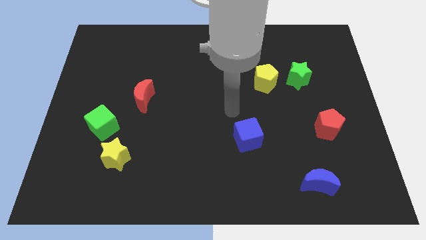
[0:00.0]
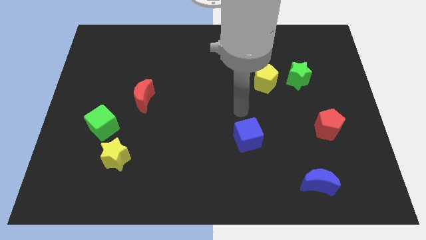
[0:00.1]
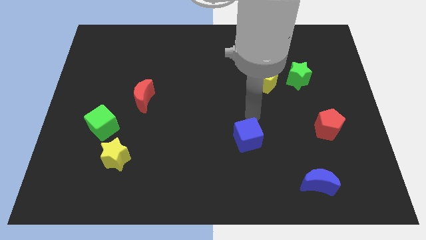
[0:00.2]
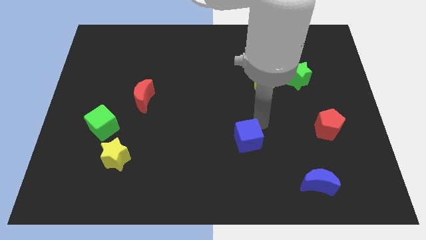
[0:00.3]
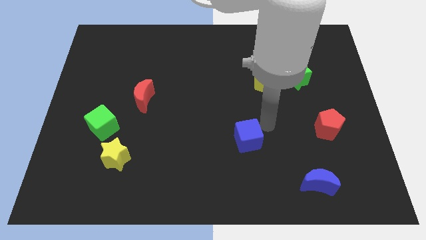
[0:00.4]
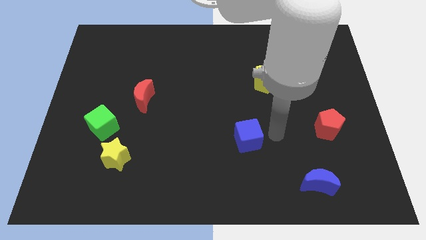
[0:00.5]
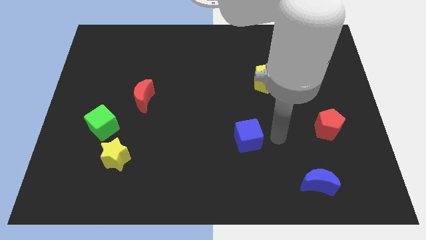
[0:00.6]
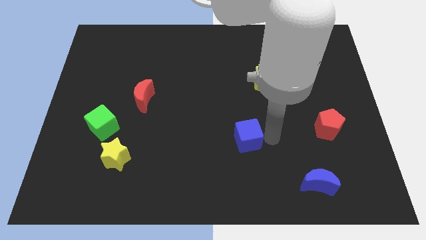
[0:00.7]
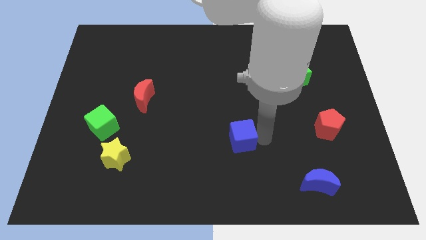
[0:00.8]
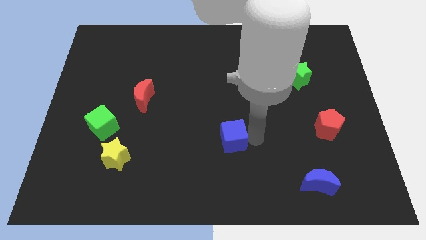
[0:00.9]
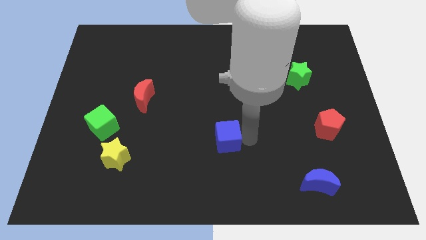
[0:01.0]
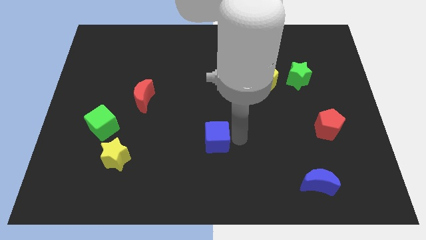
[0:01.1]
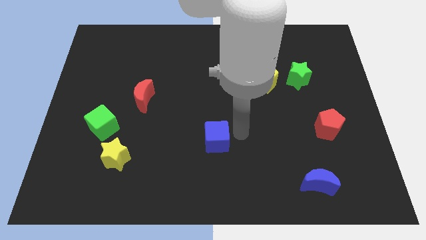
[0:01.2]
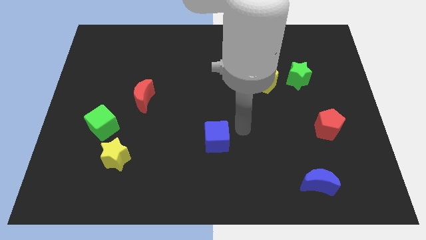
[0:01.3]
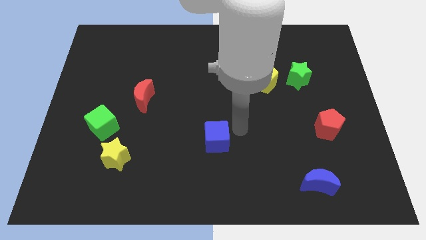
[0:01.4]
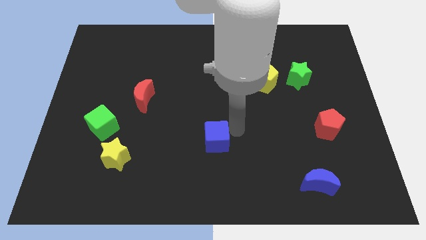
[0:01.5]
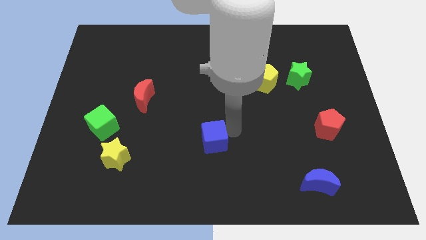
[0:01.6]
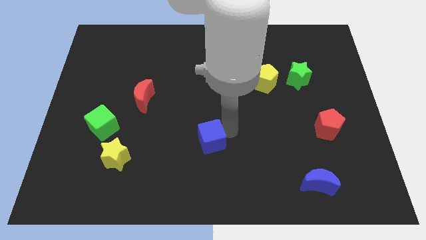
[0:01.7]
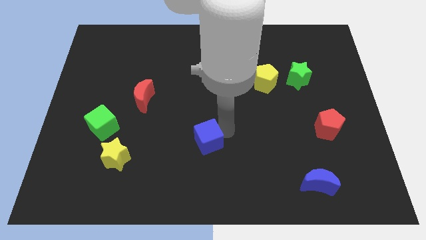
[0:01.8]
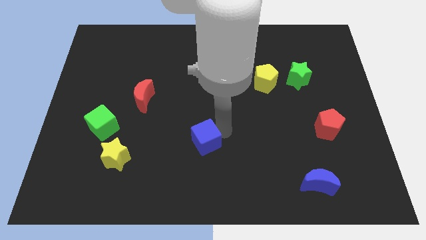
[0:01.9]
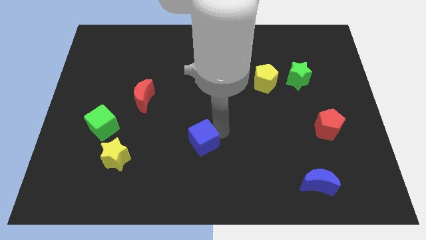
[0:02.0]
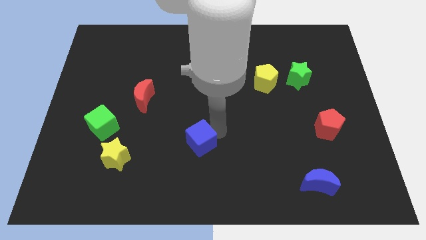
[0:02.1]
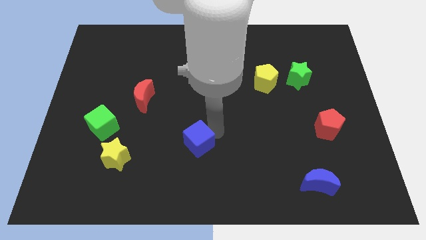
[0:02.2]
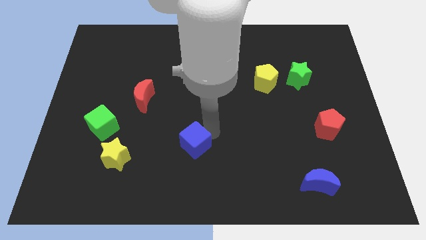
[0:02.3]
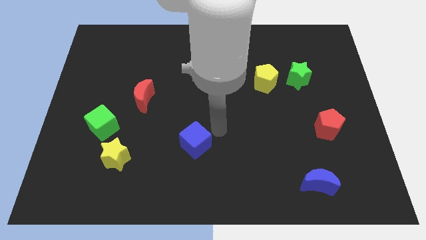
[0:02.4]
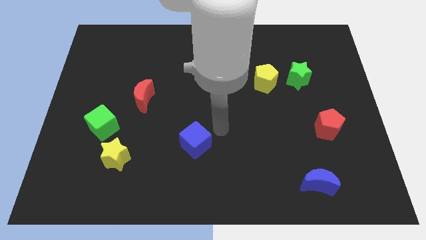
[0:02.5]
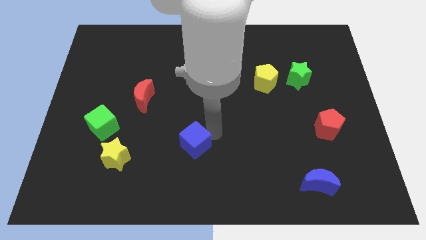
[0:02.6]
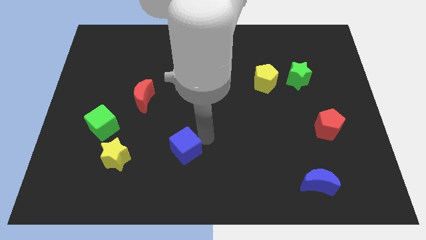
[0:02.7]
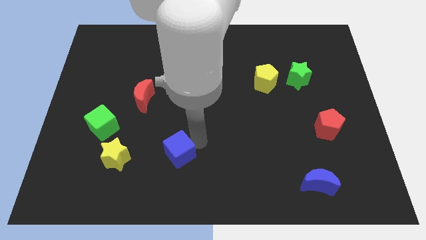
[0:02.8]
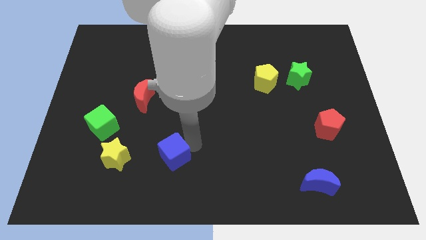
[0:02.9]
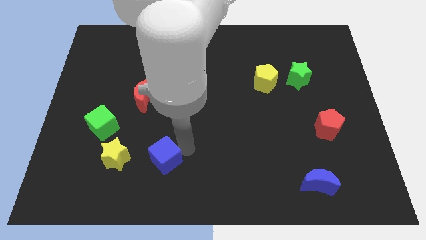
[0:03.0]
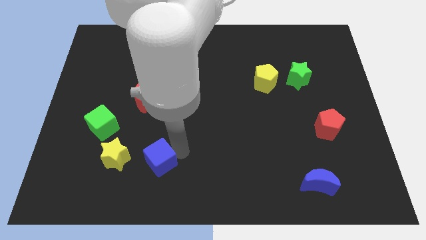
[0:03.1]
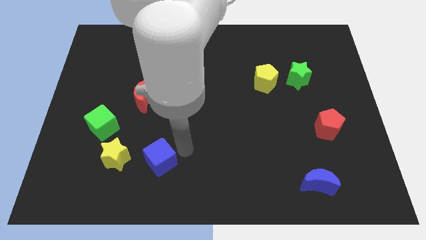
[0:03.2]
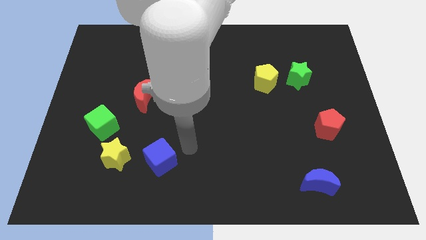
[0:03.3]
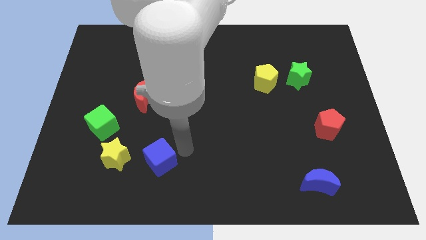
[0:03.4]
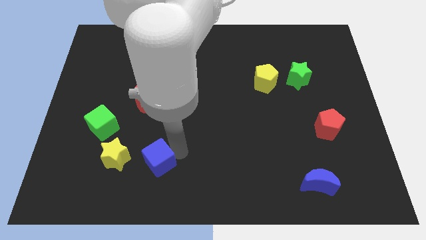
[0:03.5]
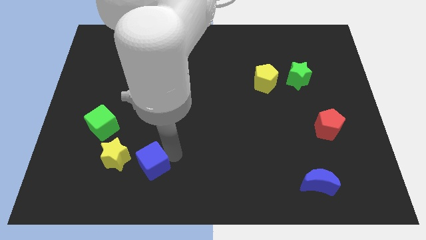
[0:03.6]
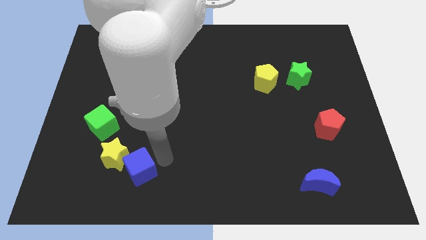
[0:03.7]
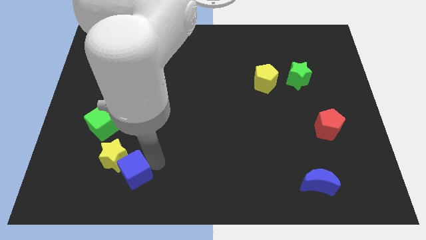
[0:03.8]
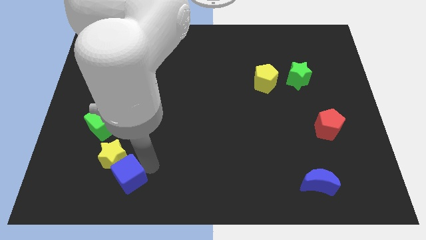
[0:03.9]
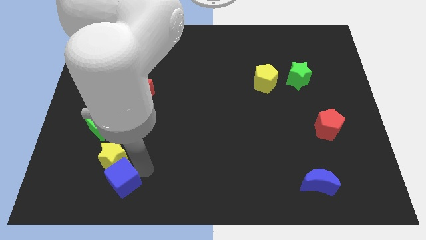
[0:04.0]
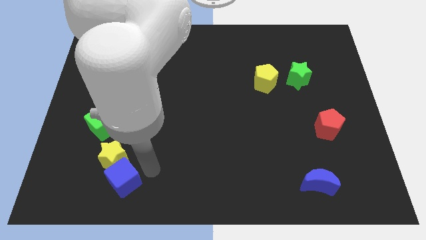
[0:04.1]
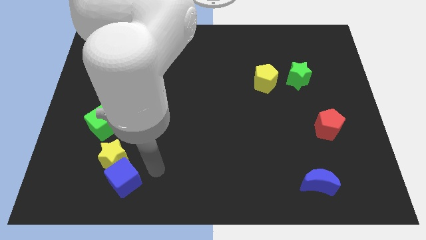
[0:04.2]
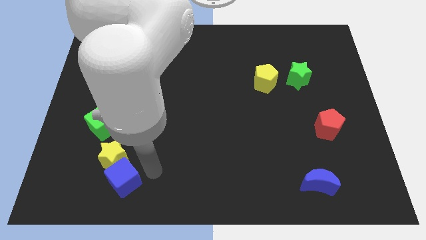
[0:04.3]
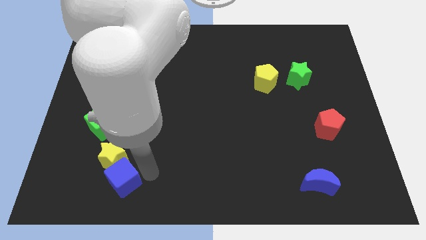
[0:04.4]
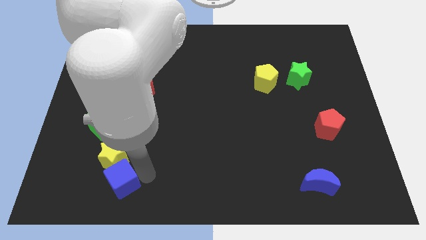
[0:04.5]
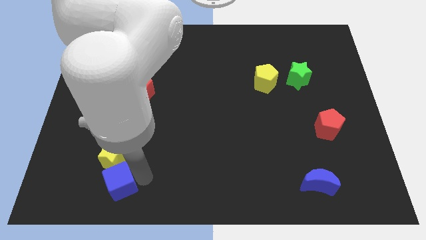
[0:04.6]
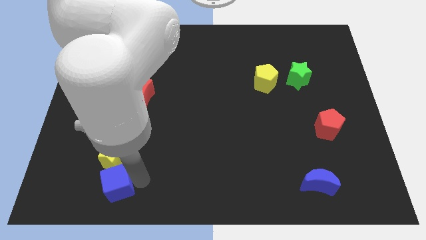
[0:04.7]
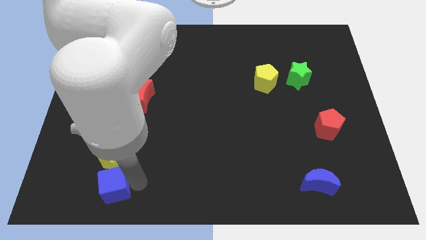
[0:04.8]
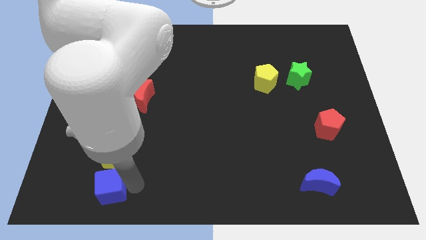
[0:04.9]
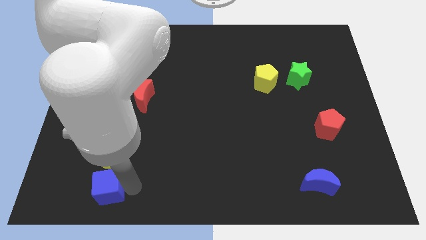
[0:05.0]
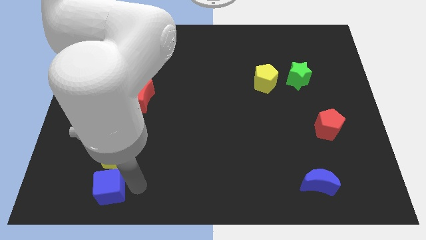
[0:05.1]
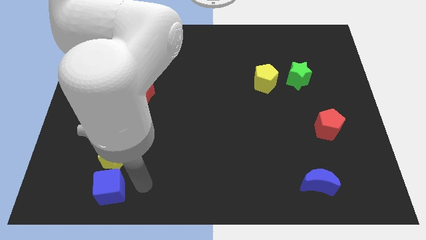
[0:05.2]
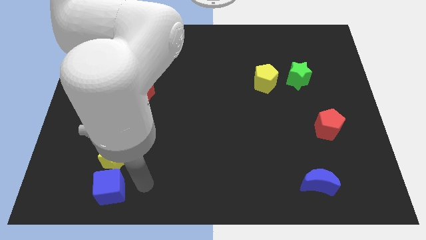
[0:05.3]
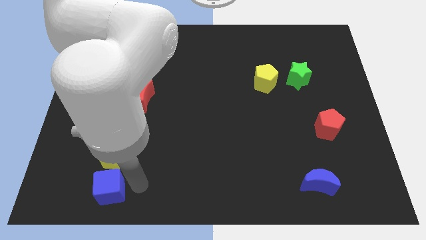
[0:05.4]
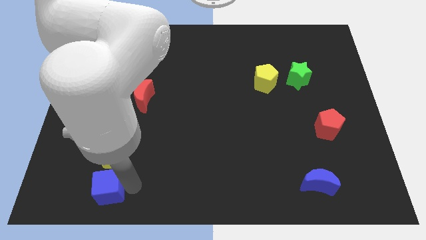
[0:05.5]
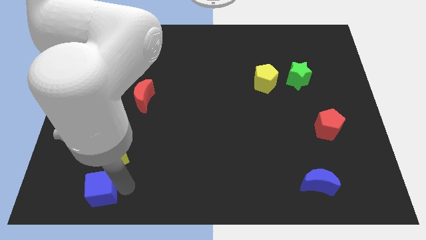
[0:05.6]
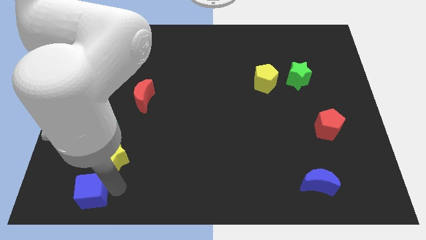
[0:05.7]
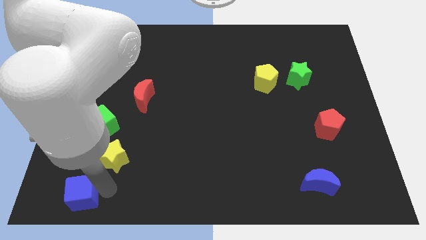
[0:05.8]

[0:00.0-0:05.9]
put the blue cube to the lower left corner

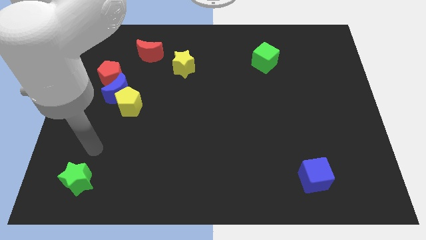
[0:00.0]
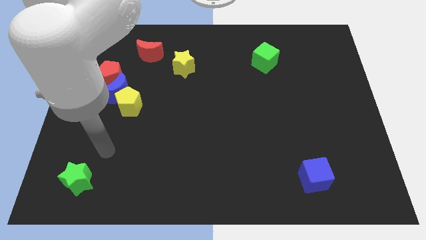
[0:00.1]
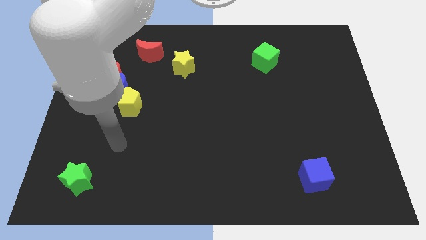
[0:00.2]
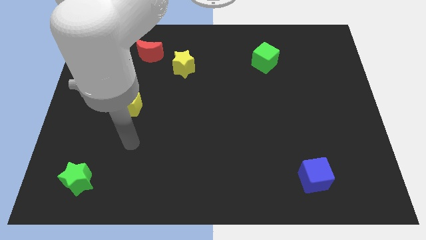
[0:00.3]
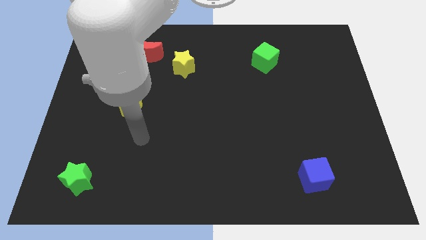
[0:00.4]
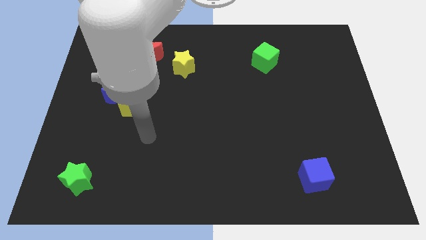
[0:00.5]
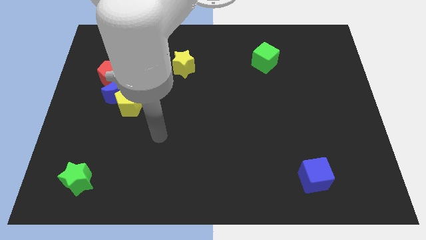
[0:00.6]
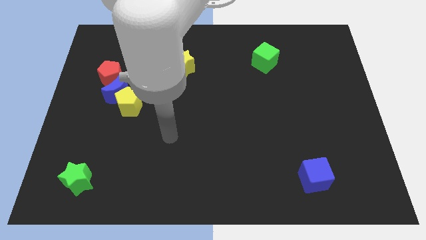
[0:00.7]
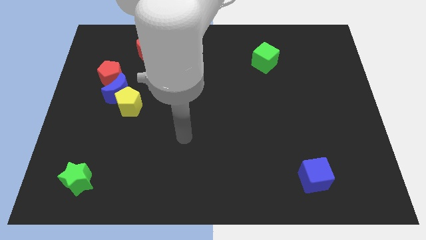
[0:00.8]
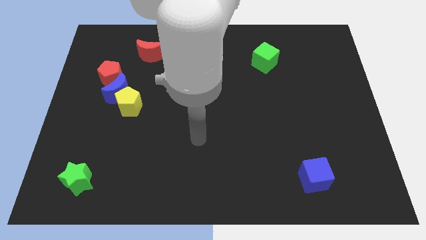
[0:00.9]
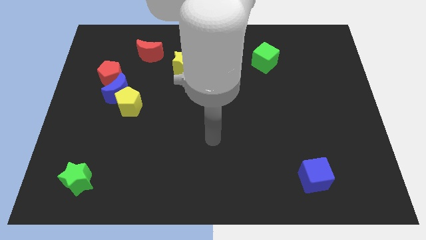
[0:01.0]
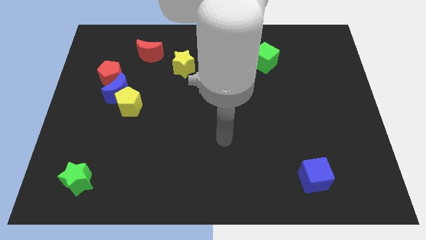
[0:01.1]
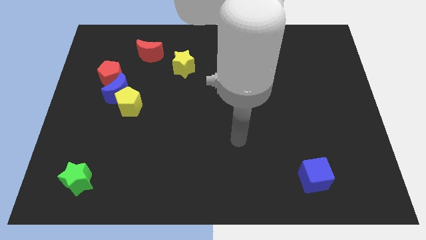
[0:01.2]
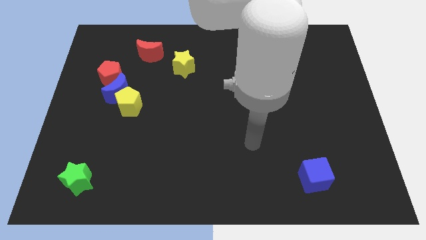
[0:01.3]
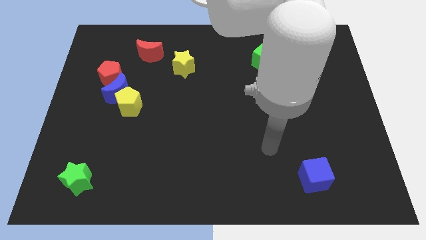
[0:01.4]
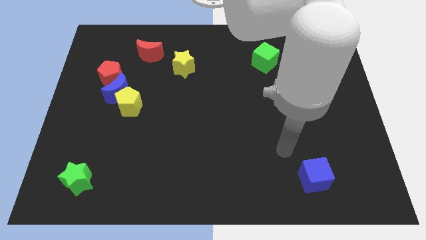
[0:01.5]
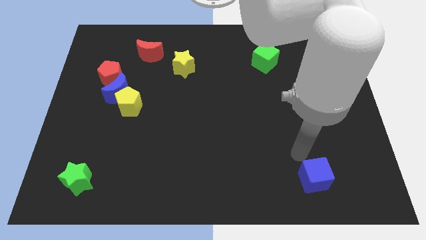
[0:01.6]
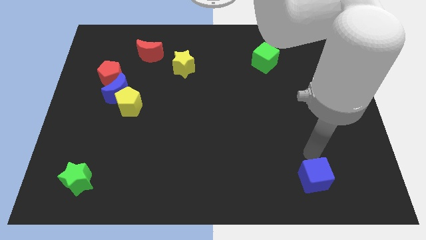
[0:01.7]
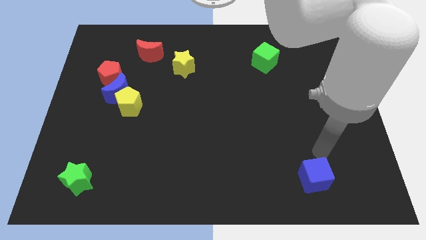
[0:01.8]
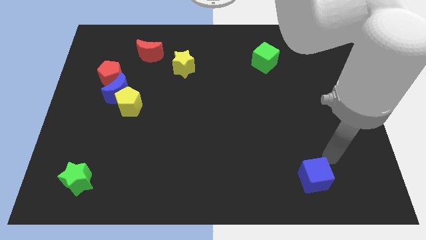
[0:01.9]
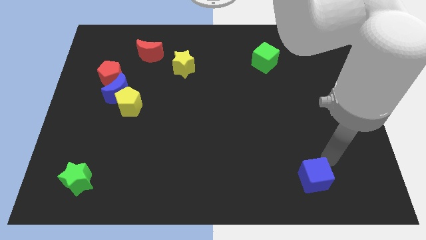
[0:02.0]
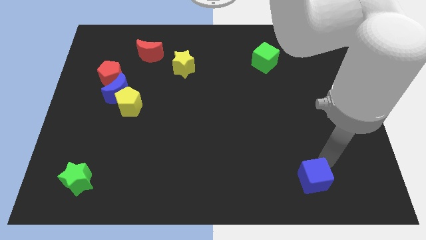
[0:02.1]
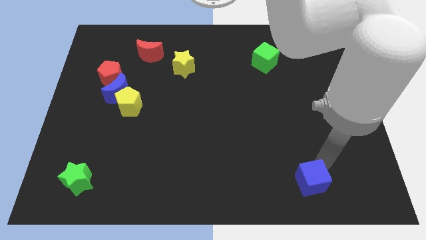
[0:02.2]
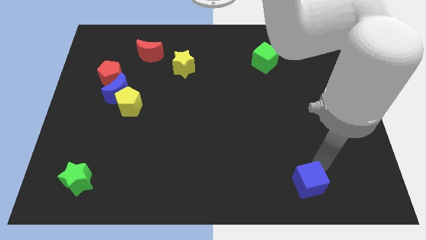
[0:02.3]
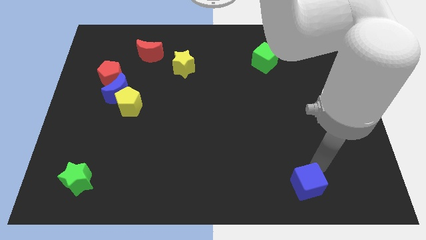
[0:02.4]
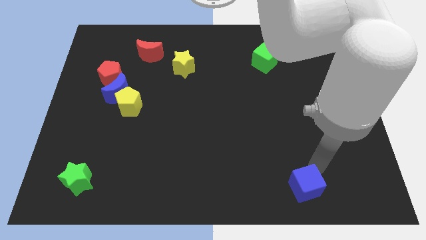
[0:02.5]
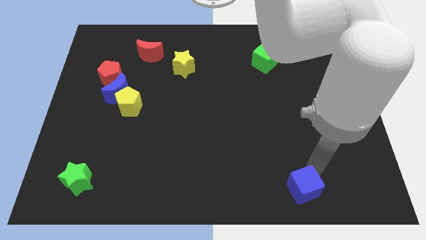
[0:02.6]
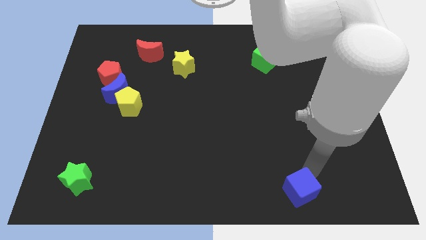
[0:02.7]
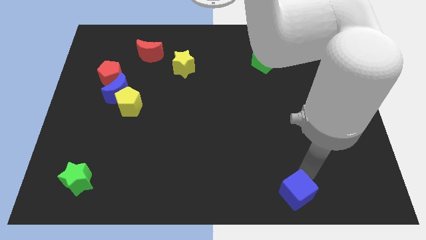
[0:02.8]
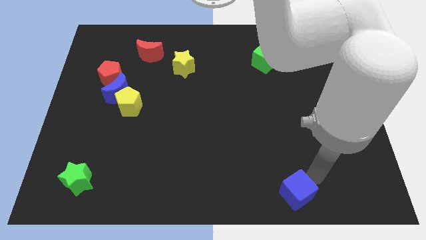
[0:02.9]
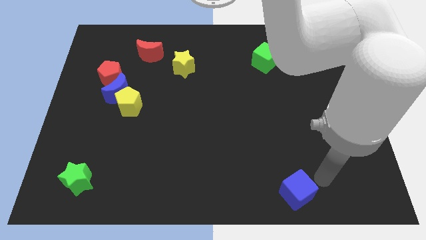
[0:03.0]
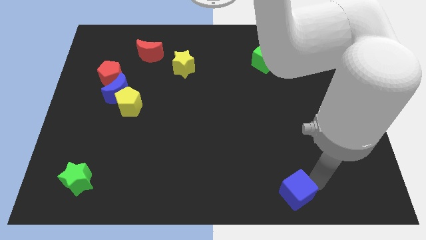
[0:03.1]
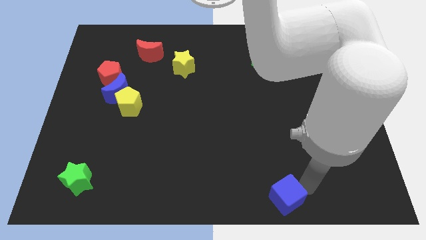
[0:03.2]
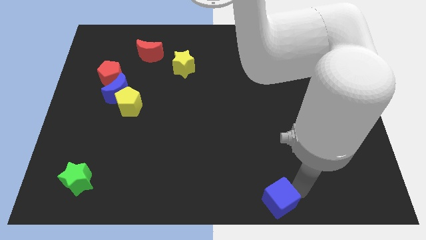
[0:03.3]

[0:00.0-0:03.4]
push the blue cube to the bottom side
